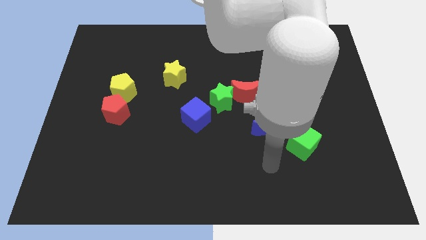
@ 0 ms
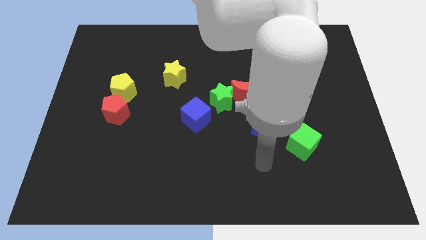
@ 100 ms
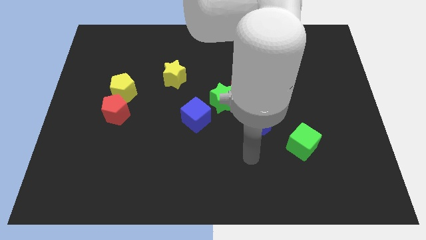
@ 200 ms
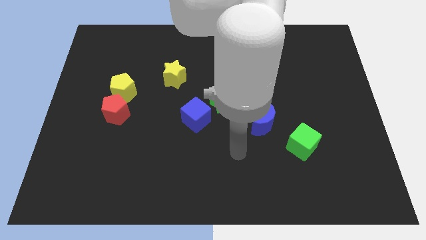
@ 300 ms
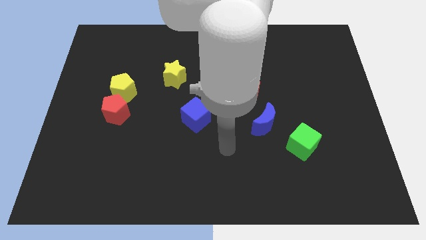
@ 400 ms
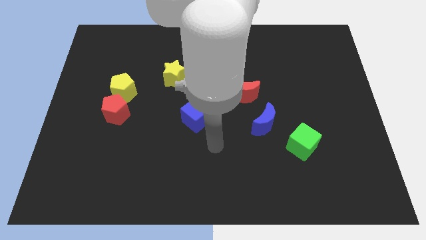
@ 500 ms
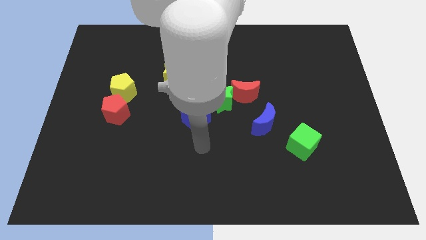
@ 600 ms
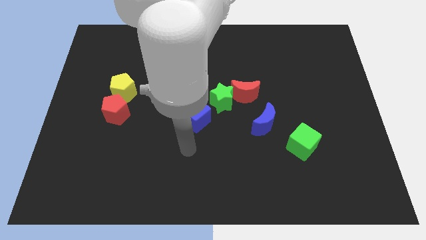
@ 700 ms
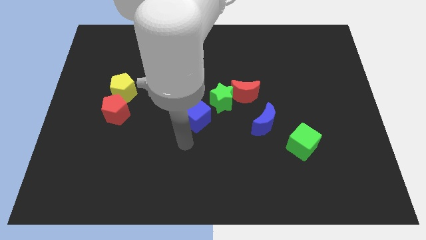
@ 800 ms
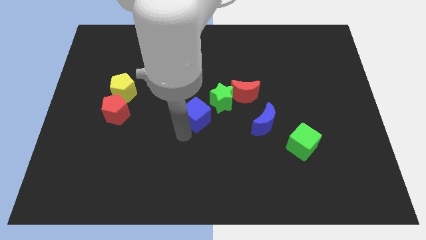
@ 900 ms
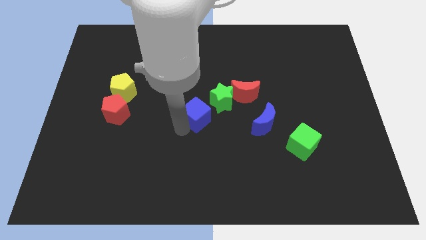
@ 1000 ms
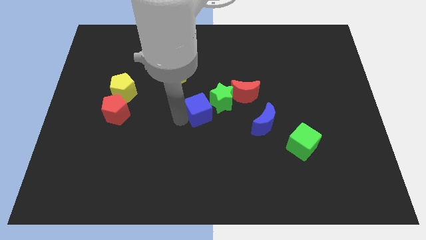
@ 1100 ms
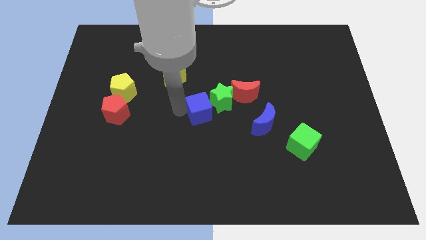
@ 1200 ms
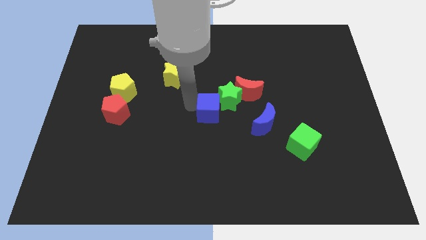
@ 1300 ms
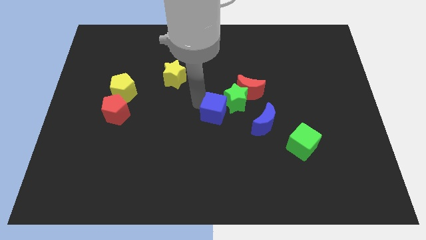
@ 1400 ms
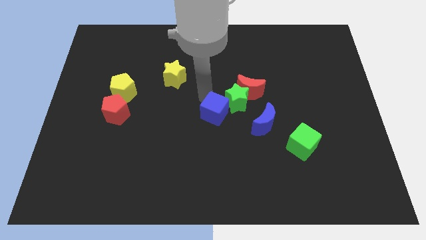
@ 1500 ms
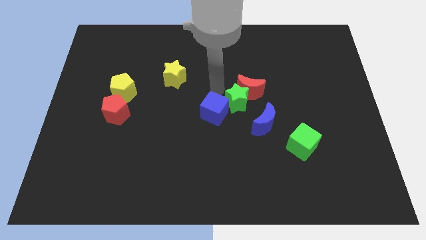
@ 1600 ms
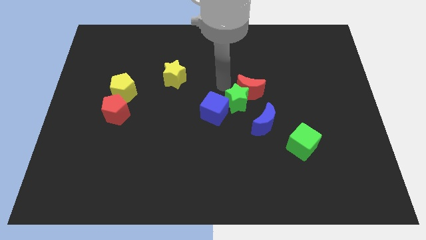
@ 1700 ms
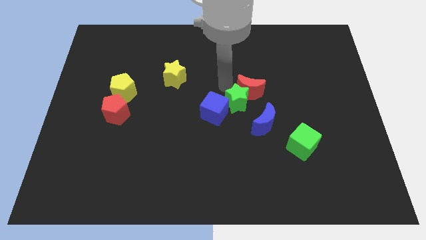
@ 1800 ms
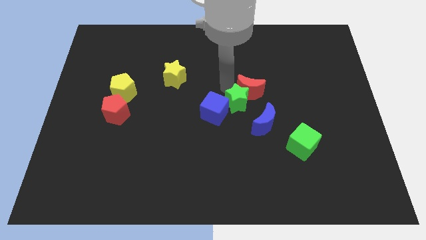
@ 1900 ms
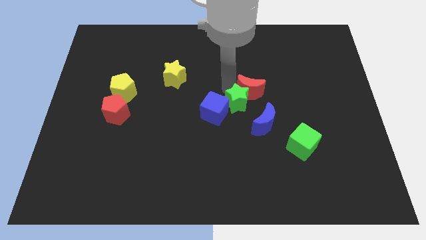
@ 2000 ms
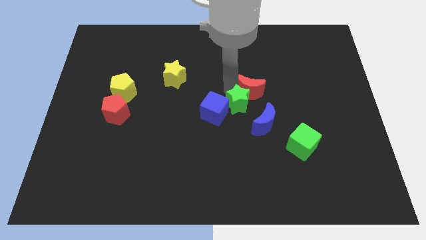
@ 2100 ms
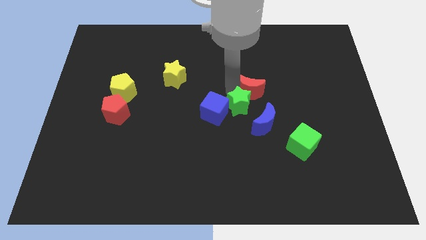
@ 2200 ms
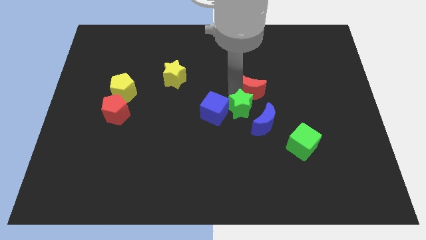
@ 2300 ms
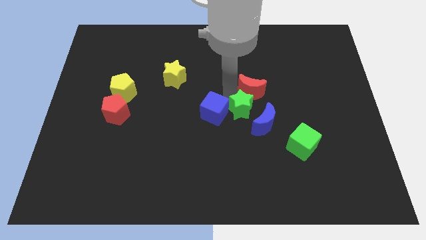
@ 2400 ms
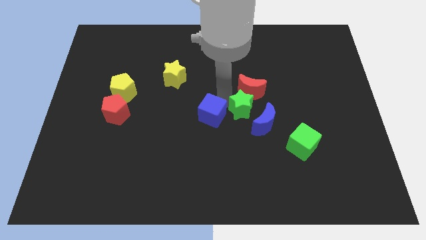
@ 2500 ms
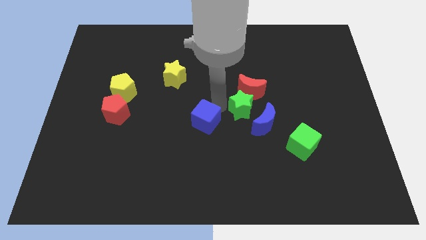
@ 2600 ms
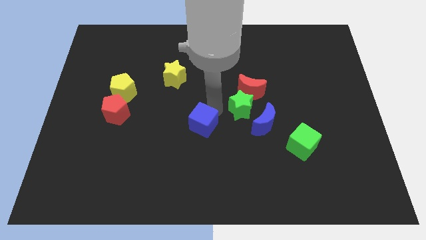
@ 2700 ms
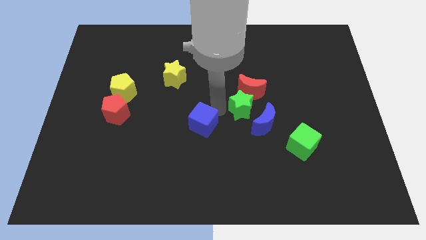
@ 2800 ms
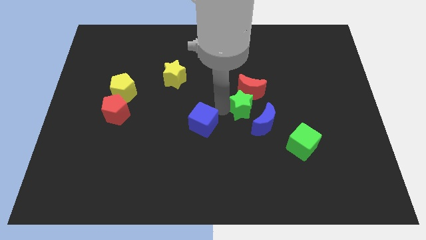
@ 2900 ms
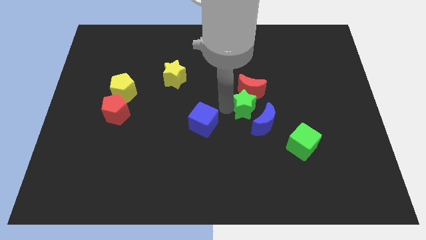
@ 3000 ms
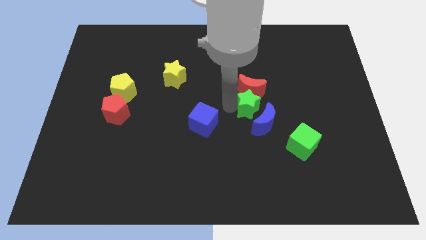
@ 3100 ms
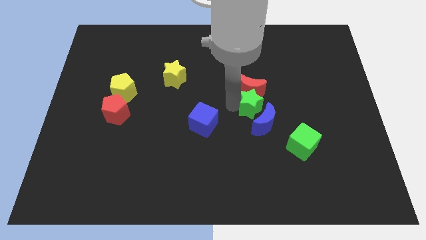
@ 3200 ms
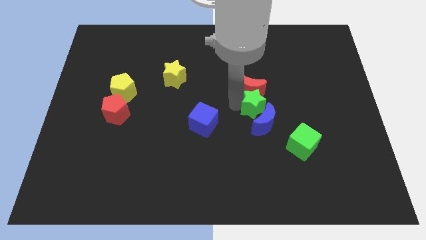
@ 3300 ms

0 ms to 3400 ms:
slide the green star slightly to the right

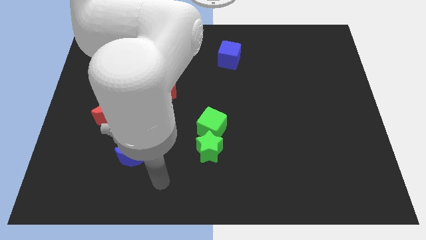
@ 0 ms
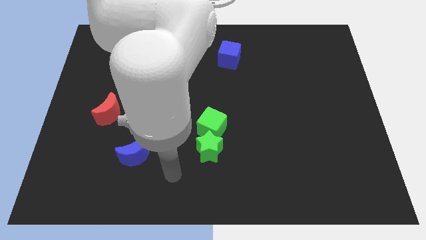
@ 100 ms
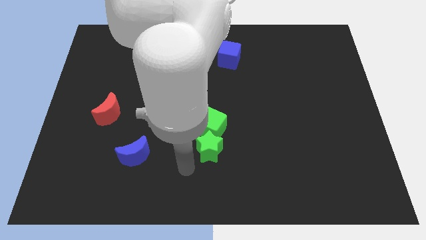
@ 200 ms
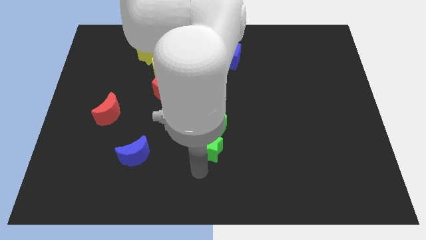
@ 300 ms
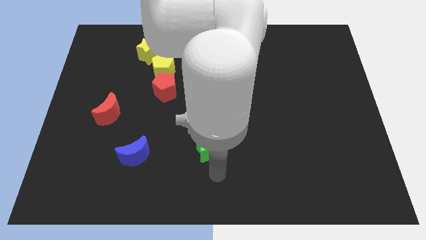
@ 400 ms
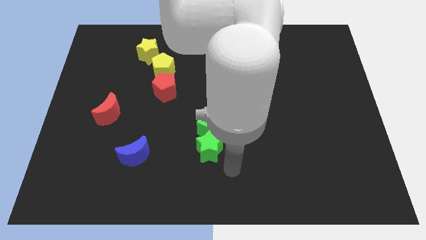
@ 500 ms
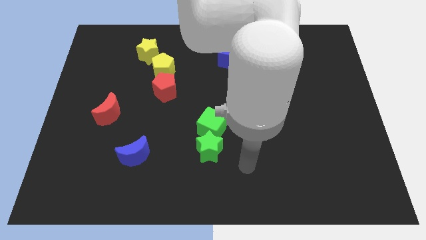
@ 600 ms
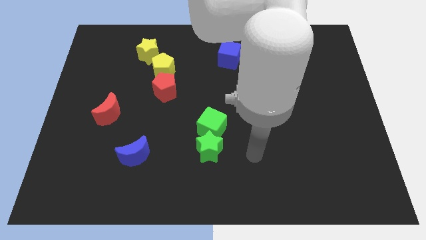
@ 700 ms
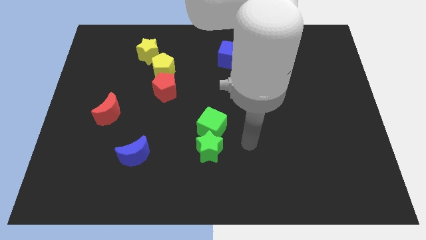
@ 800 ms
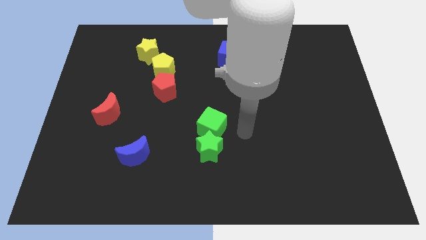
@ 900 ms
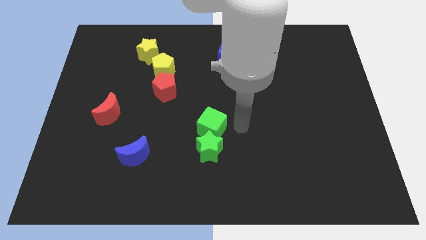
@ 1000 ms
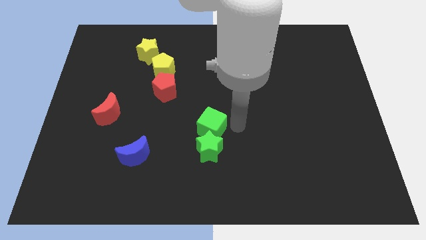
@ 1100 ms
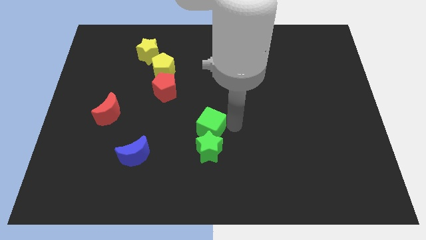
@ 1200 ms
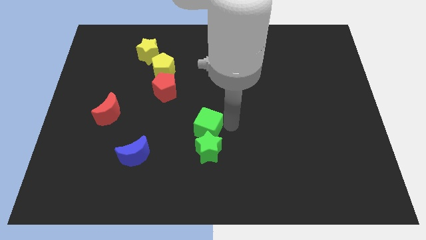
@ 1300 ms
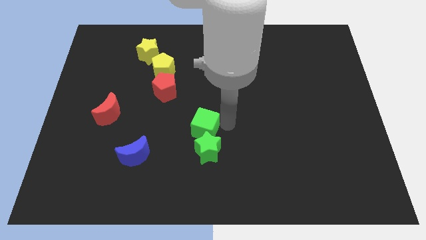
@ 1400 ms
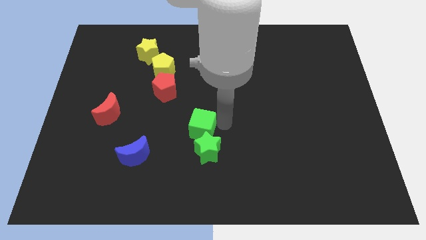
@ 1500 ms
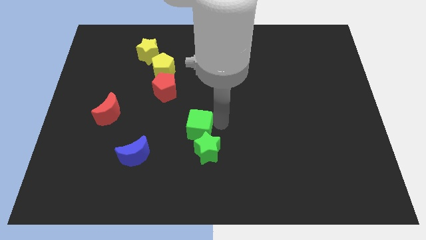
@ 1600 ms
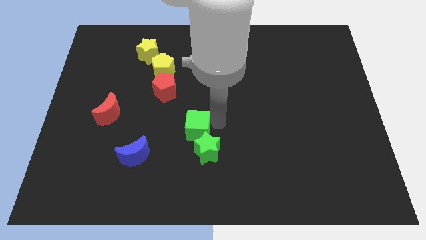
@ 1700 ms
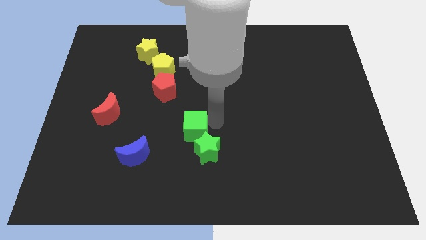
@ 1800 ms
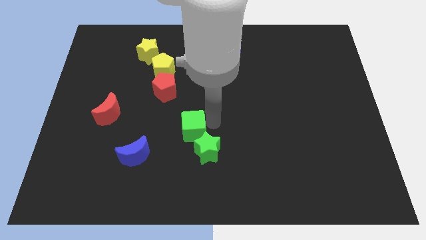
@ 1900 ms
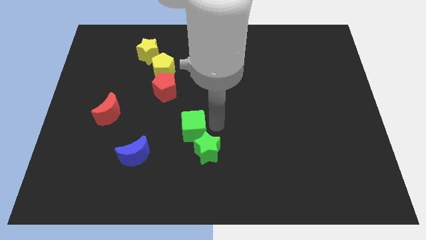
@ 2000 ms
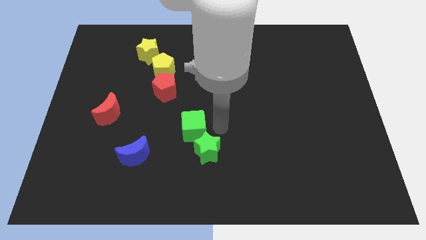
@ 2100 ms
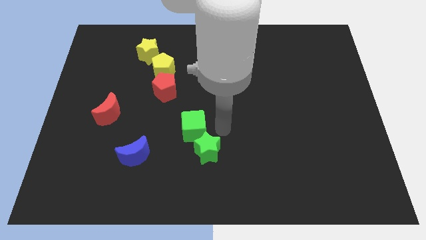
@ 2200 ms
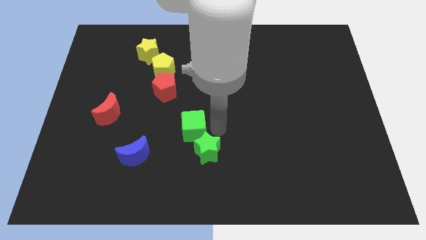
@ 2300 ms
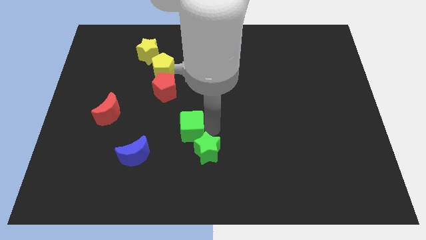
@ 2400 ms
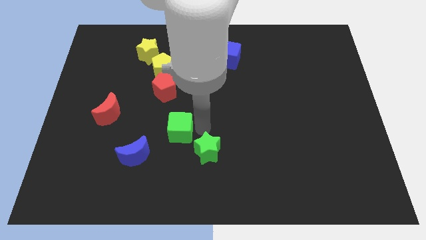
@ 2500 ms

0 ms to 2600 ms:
push the green cube slightly to the left

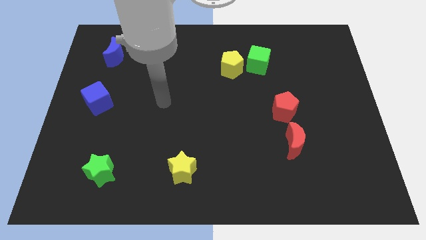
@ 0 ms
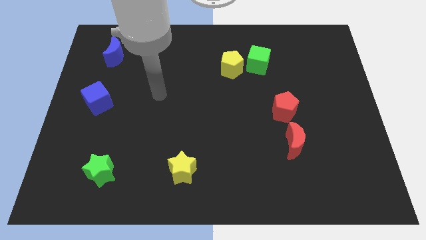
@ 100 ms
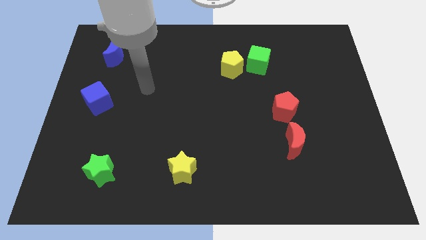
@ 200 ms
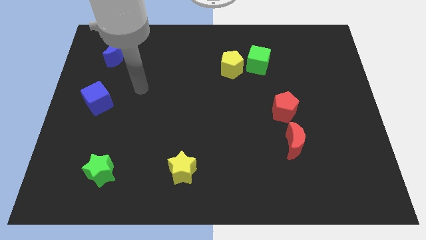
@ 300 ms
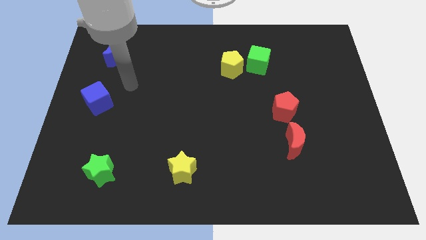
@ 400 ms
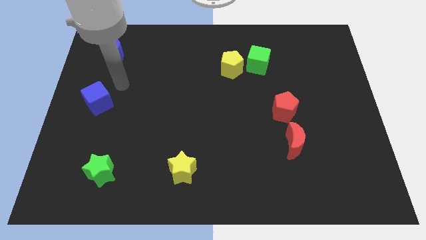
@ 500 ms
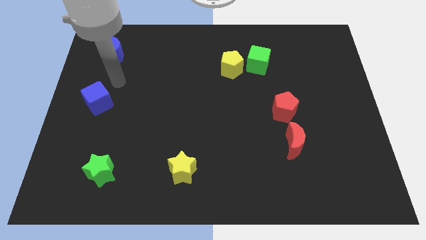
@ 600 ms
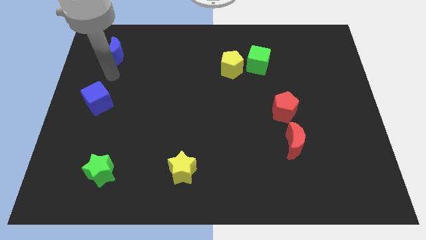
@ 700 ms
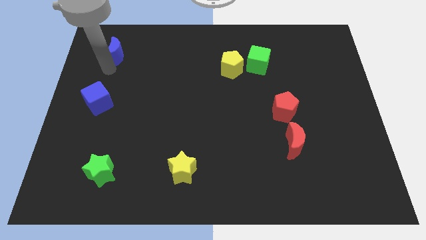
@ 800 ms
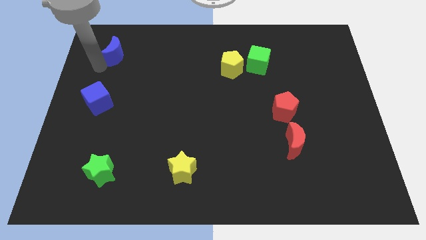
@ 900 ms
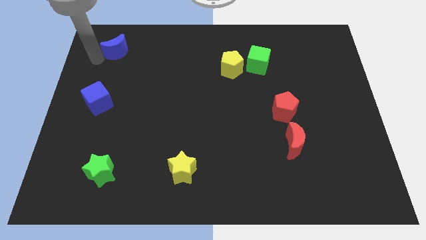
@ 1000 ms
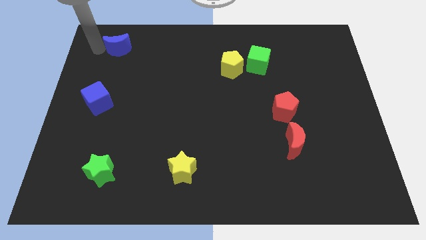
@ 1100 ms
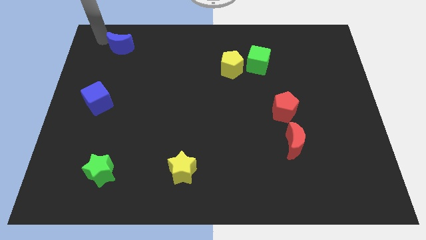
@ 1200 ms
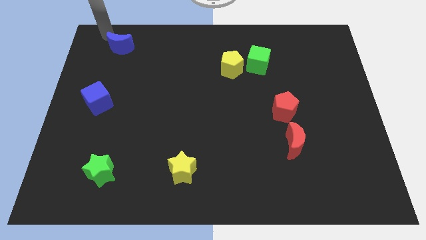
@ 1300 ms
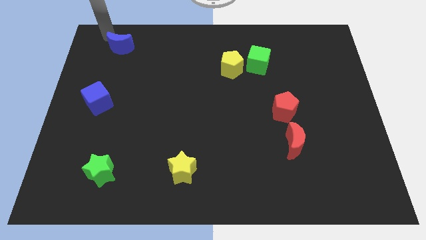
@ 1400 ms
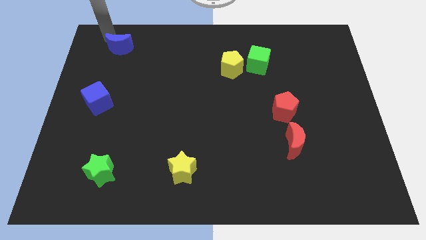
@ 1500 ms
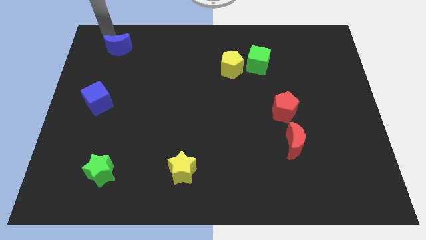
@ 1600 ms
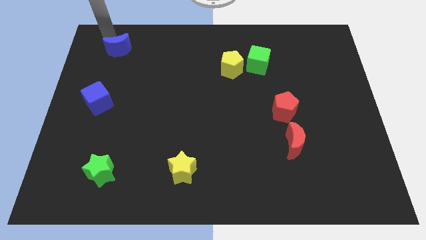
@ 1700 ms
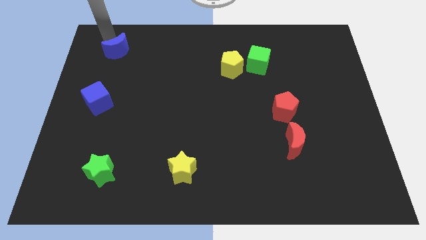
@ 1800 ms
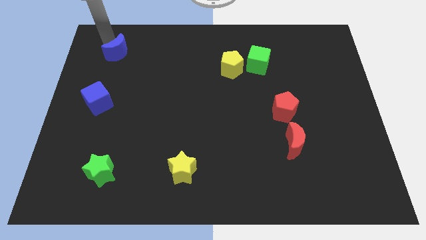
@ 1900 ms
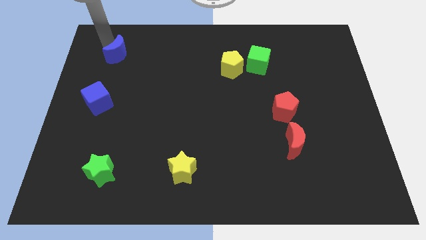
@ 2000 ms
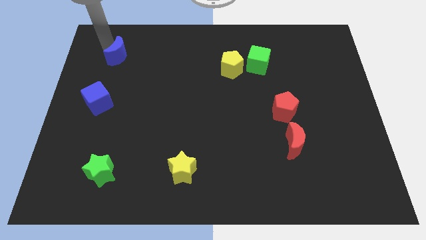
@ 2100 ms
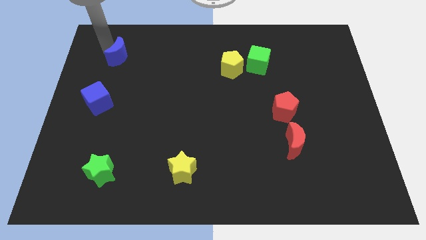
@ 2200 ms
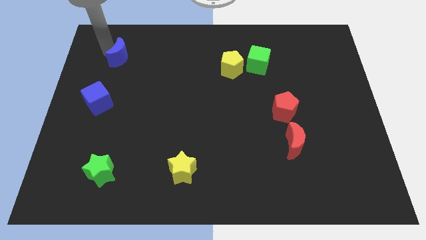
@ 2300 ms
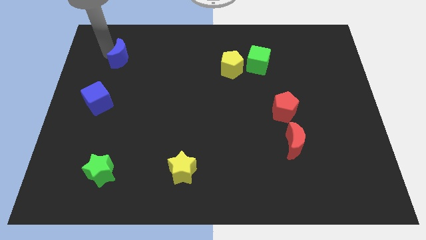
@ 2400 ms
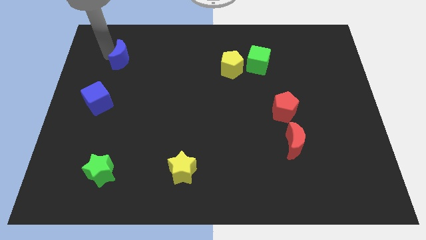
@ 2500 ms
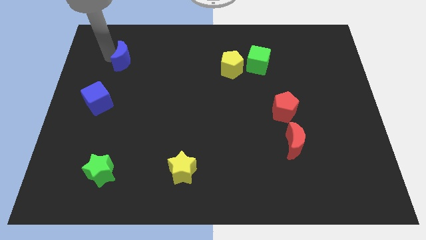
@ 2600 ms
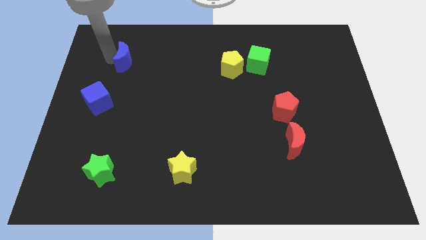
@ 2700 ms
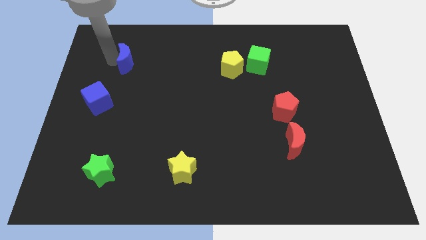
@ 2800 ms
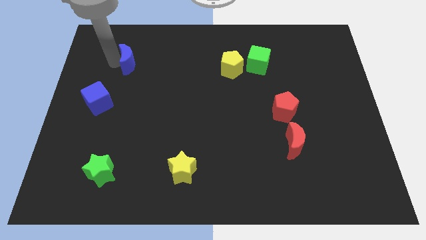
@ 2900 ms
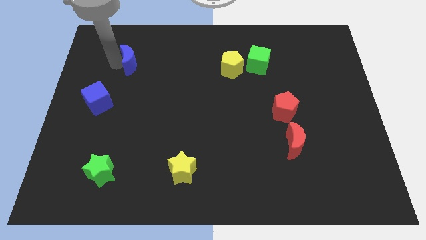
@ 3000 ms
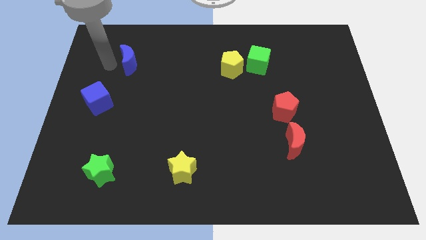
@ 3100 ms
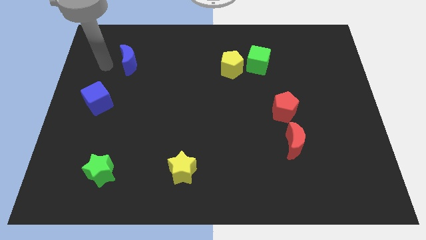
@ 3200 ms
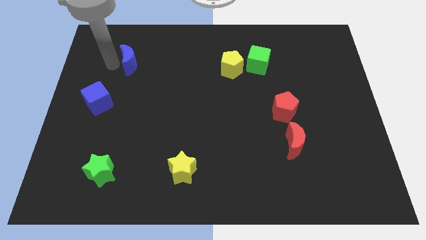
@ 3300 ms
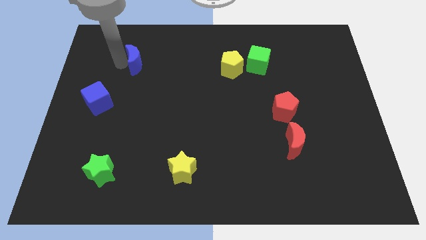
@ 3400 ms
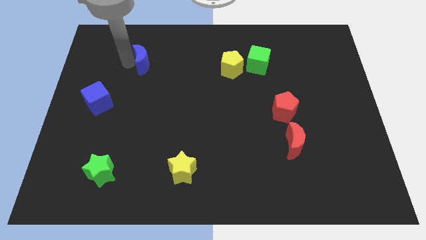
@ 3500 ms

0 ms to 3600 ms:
move the blue moon somewhat to the right
